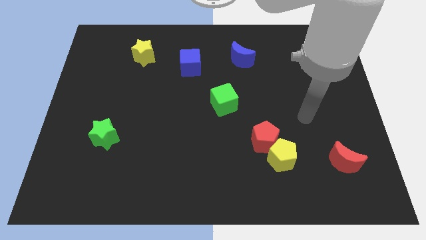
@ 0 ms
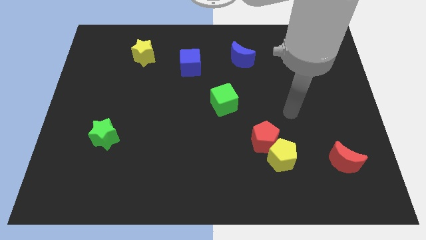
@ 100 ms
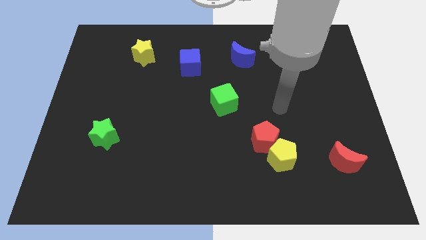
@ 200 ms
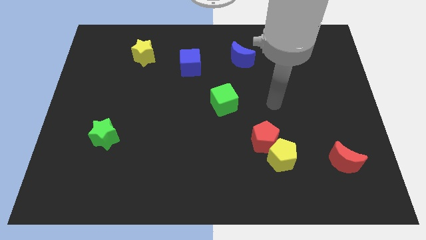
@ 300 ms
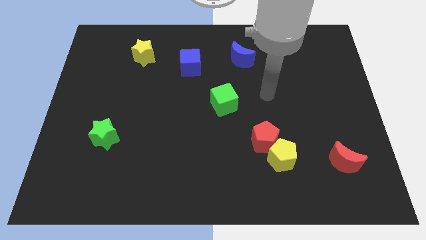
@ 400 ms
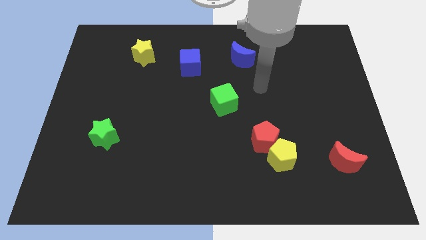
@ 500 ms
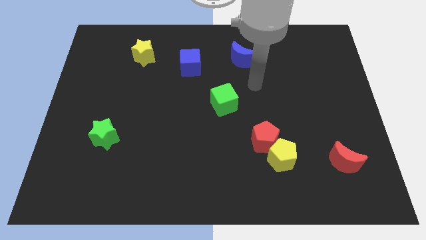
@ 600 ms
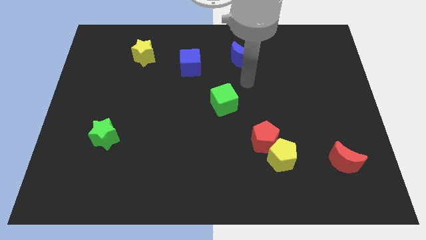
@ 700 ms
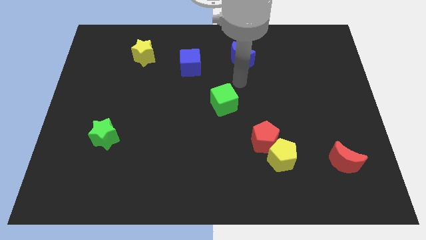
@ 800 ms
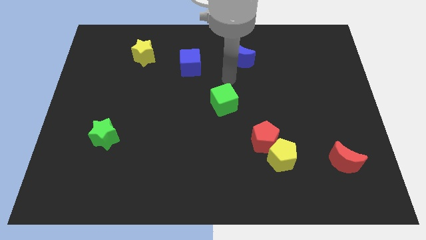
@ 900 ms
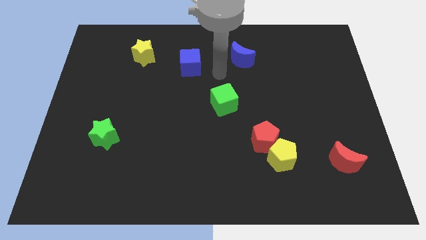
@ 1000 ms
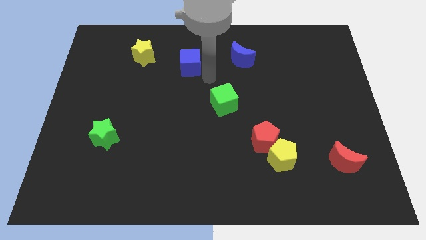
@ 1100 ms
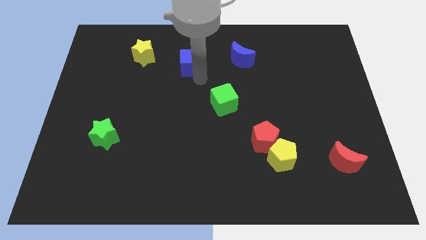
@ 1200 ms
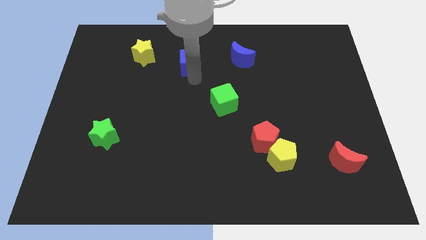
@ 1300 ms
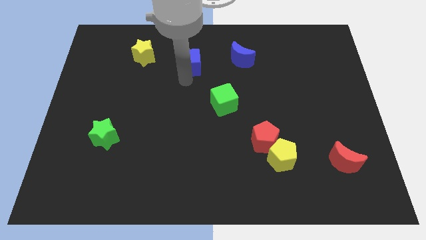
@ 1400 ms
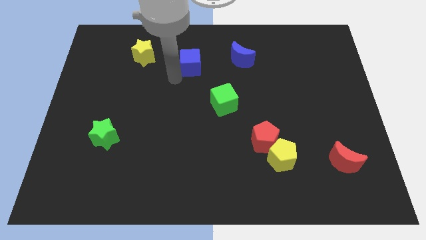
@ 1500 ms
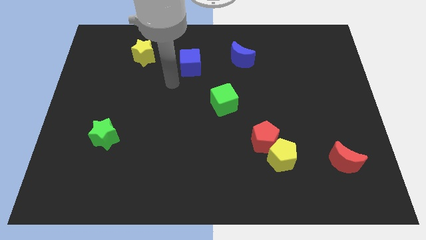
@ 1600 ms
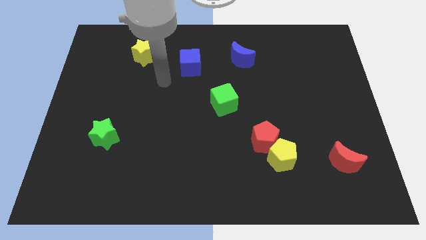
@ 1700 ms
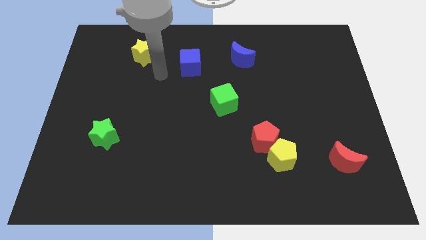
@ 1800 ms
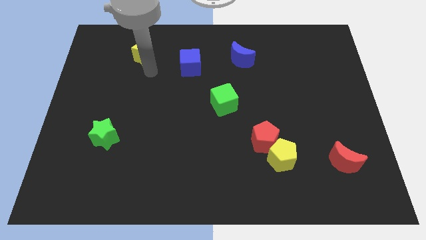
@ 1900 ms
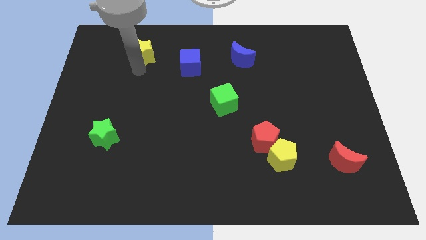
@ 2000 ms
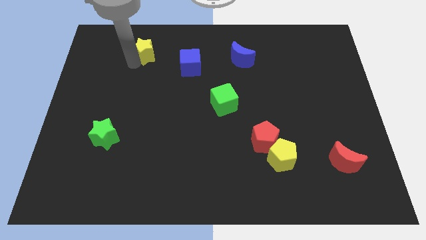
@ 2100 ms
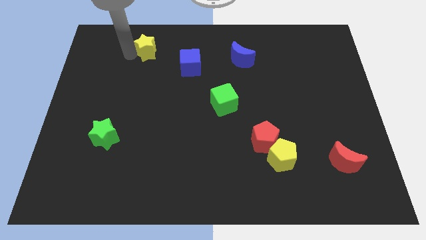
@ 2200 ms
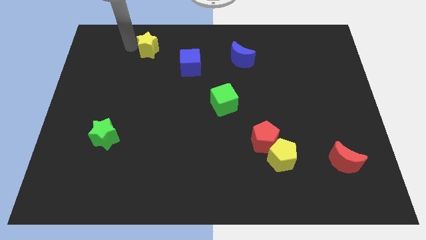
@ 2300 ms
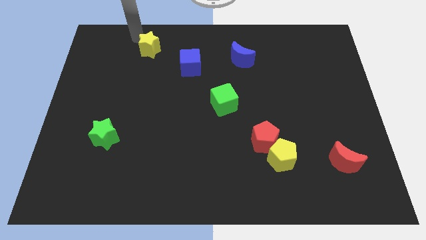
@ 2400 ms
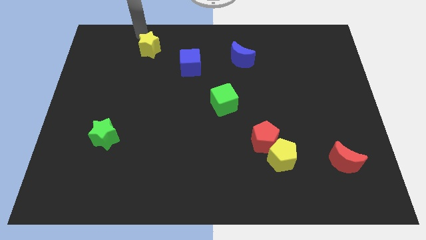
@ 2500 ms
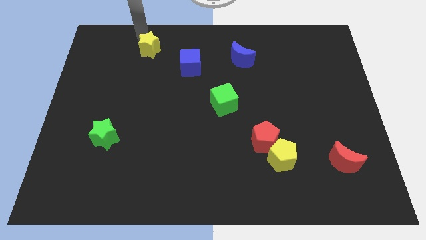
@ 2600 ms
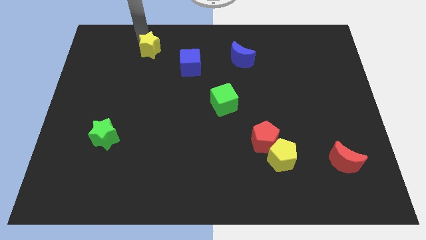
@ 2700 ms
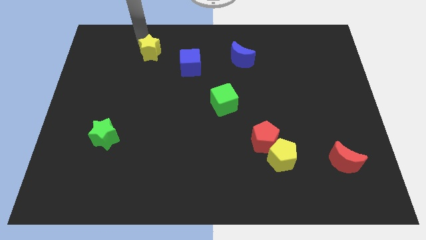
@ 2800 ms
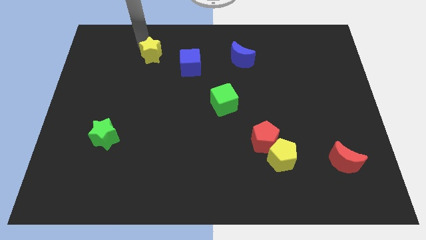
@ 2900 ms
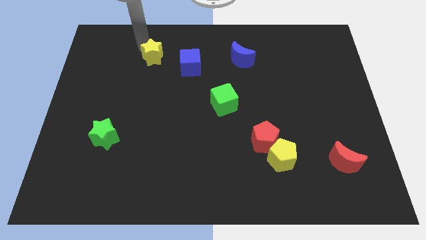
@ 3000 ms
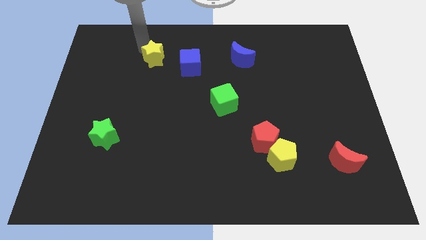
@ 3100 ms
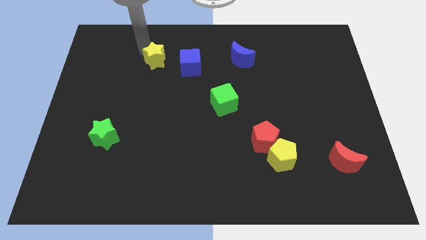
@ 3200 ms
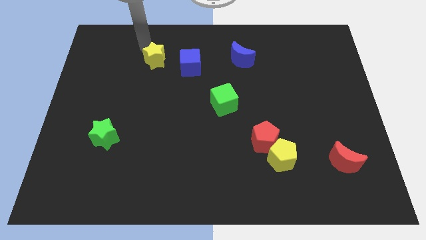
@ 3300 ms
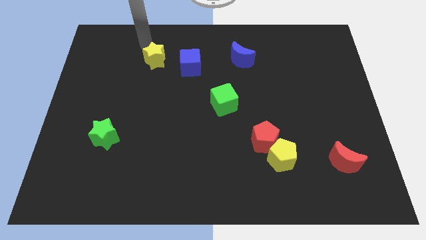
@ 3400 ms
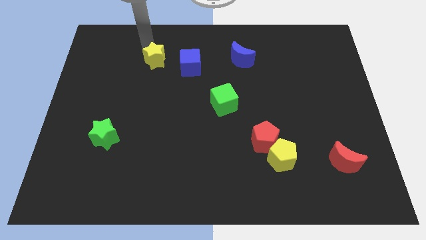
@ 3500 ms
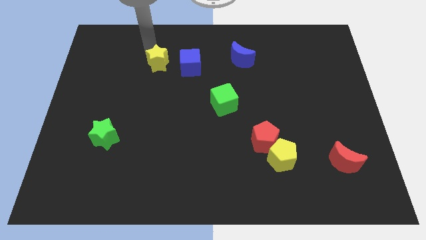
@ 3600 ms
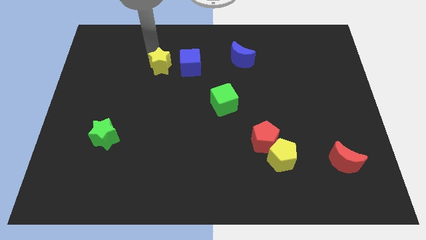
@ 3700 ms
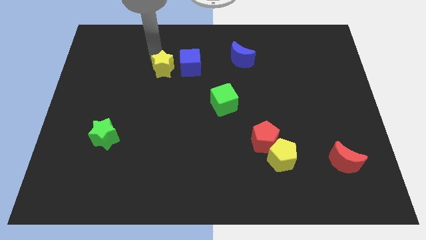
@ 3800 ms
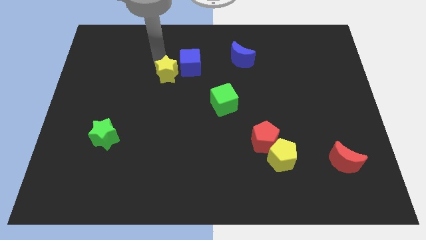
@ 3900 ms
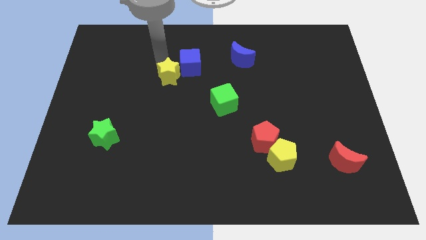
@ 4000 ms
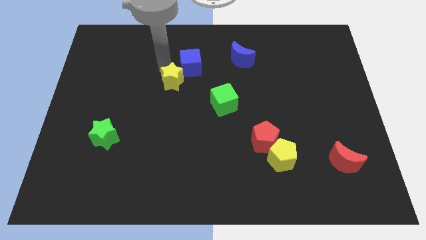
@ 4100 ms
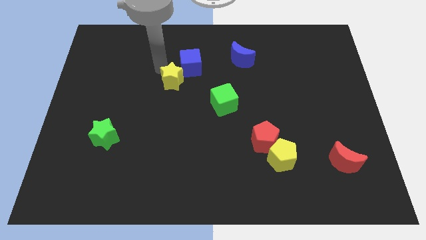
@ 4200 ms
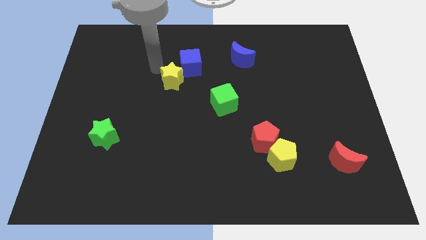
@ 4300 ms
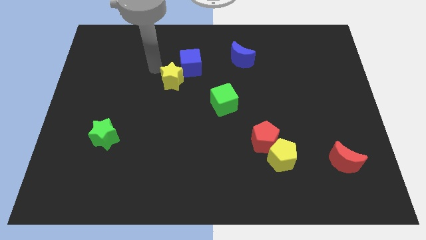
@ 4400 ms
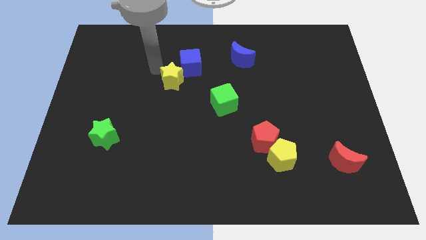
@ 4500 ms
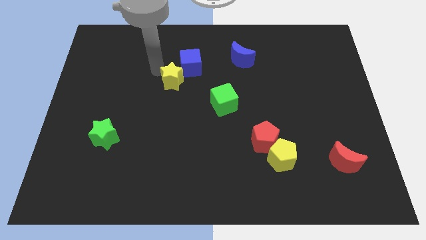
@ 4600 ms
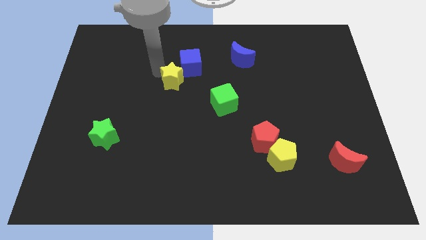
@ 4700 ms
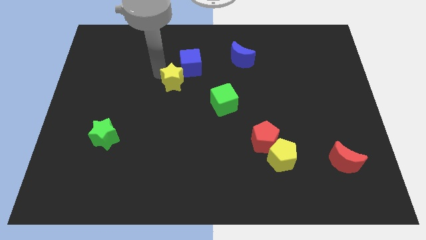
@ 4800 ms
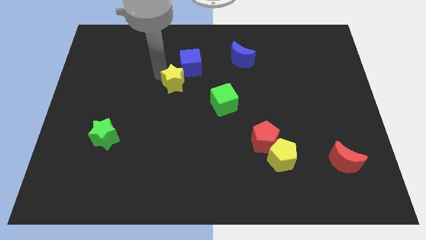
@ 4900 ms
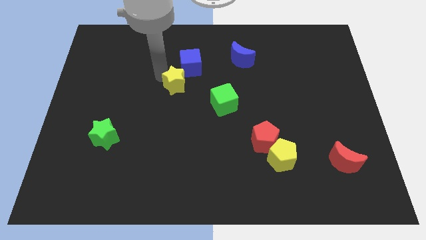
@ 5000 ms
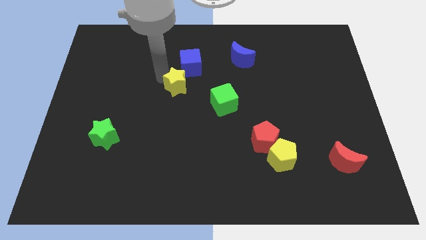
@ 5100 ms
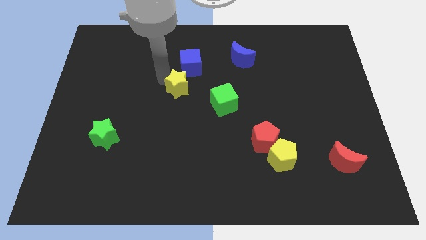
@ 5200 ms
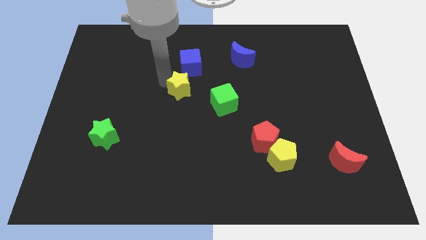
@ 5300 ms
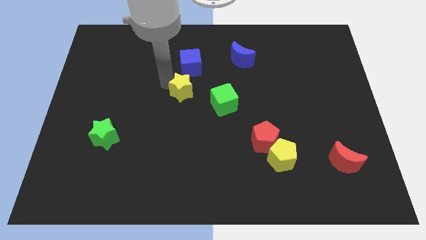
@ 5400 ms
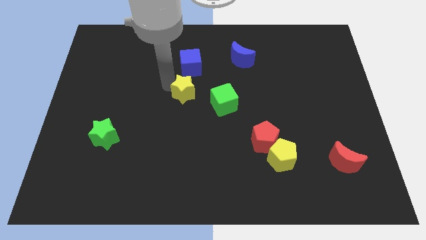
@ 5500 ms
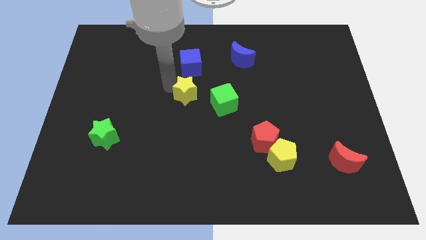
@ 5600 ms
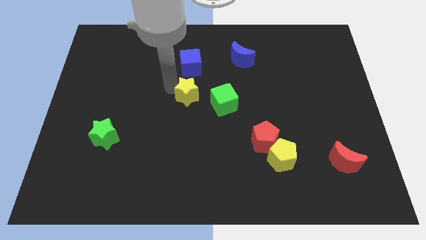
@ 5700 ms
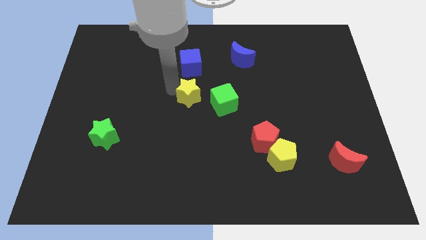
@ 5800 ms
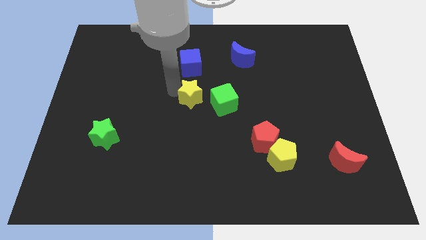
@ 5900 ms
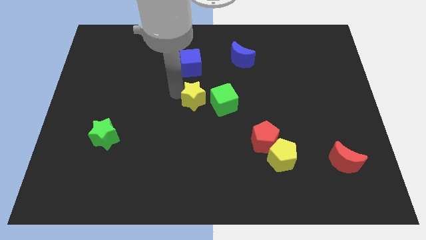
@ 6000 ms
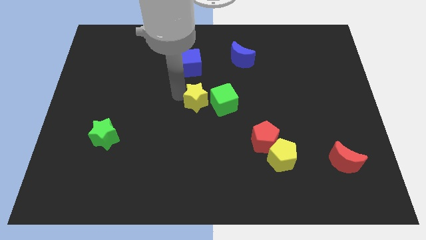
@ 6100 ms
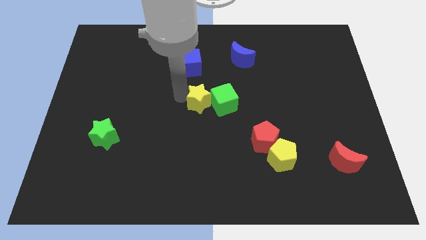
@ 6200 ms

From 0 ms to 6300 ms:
slide the yellow star to the green cube
